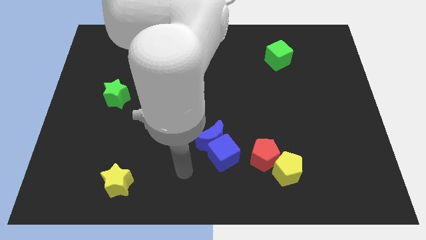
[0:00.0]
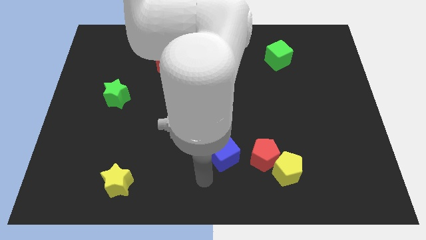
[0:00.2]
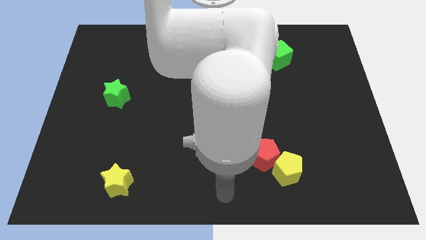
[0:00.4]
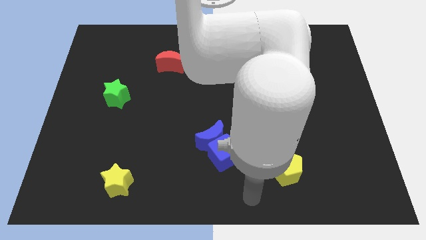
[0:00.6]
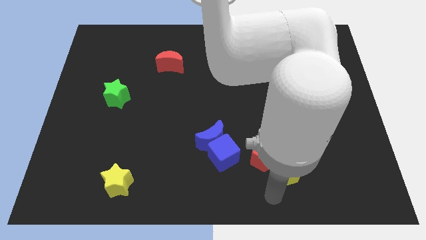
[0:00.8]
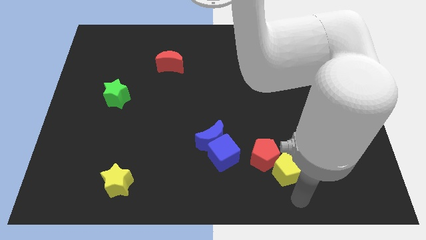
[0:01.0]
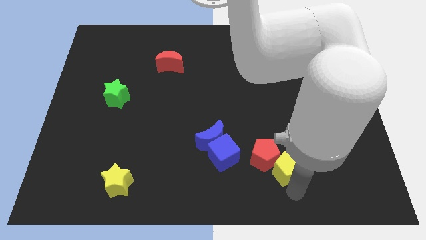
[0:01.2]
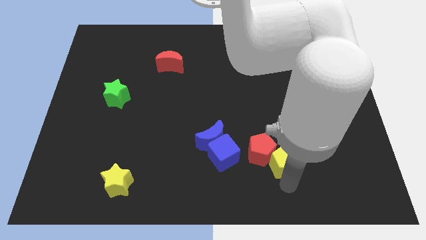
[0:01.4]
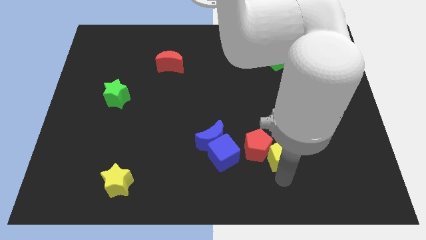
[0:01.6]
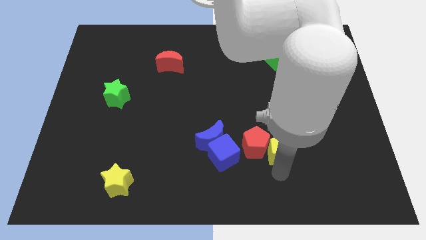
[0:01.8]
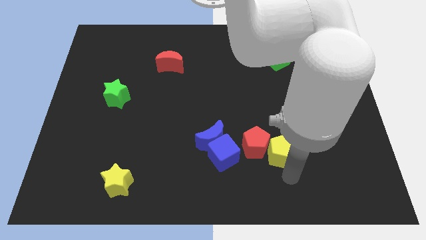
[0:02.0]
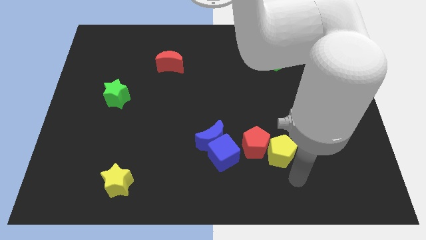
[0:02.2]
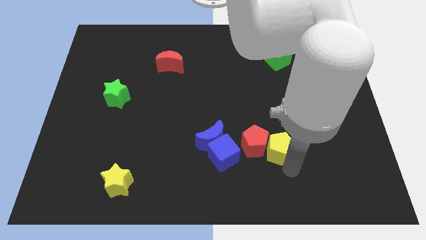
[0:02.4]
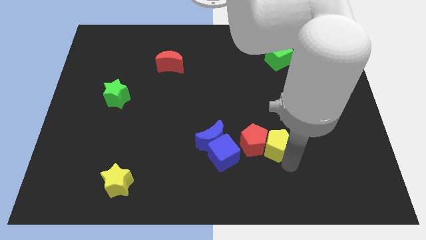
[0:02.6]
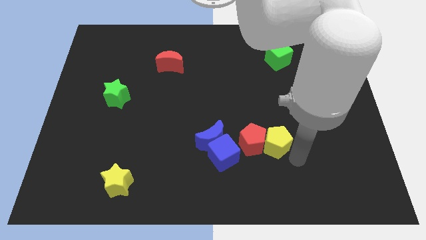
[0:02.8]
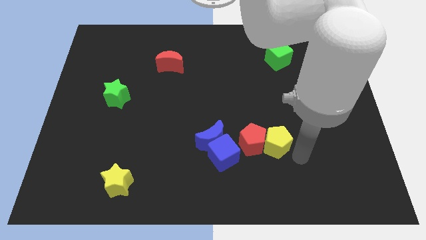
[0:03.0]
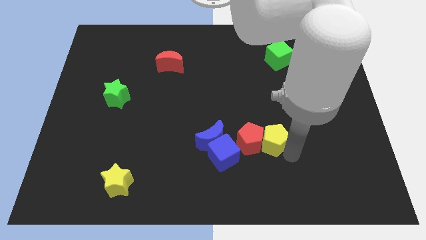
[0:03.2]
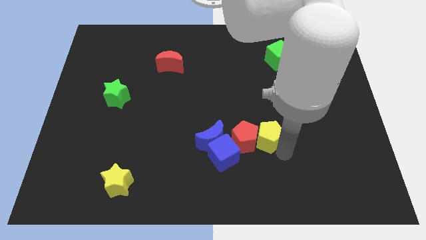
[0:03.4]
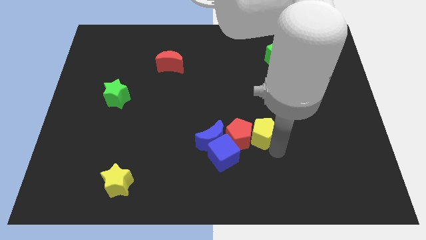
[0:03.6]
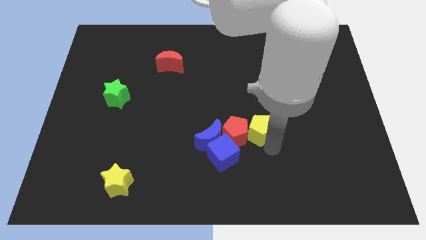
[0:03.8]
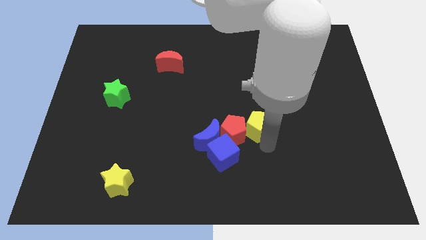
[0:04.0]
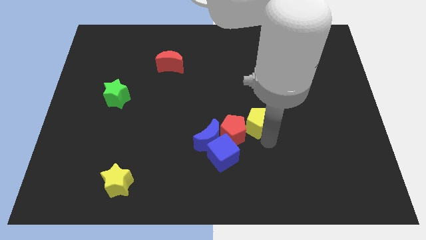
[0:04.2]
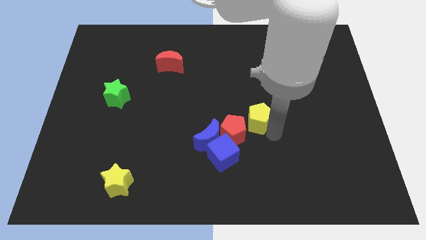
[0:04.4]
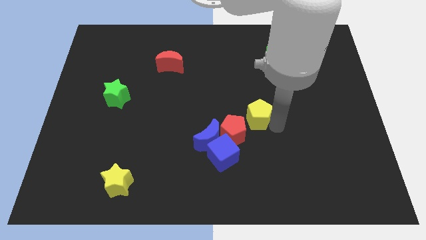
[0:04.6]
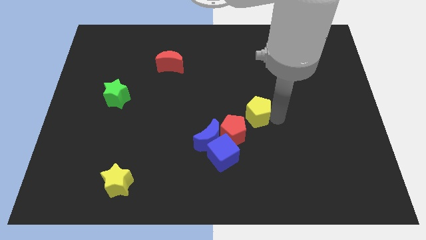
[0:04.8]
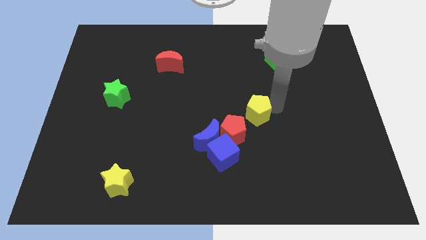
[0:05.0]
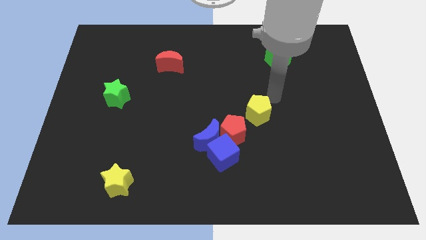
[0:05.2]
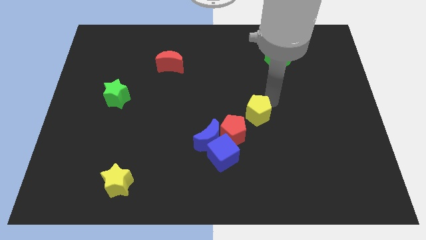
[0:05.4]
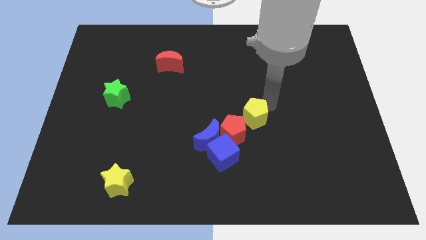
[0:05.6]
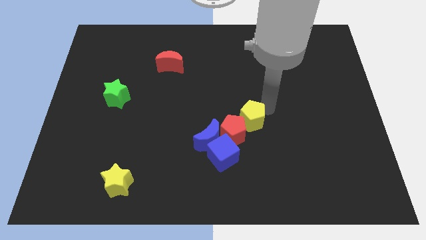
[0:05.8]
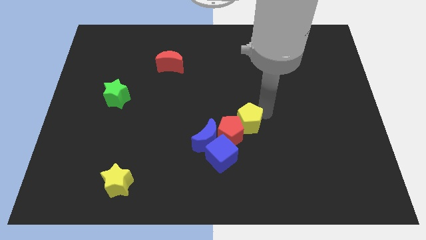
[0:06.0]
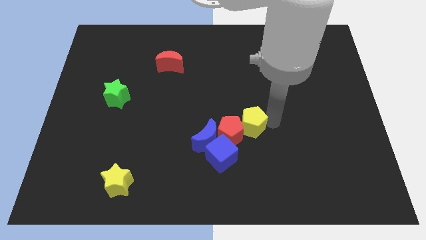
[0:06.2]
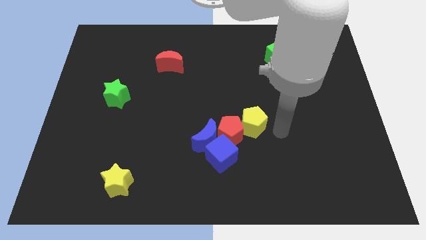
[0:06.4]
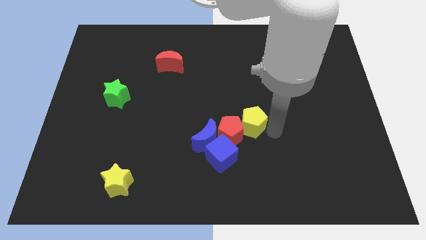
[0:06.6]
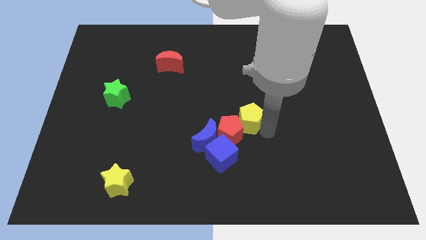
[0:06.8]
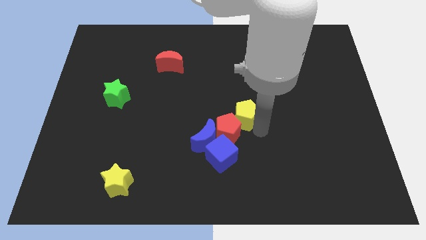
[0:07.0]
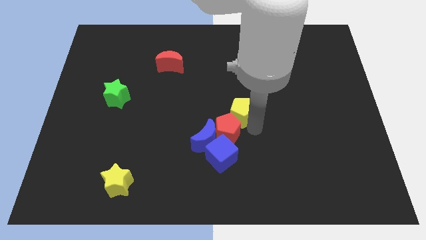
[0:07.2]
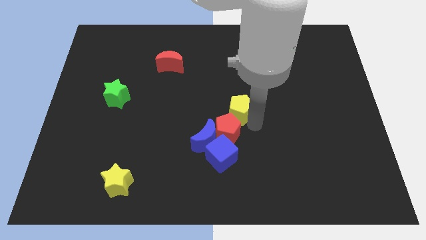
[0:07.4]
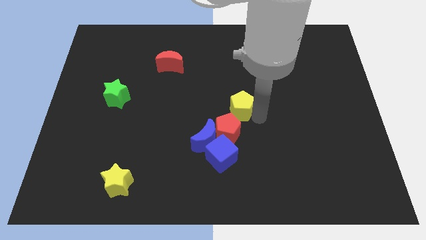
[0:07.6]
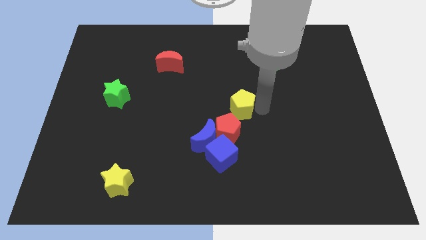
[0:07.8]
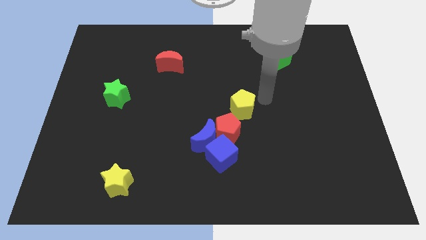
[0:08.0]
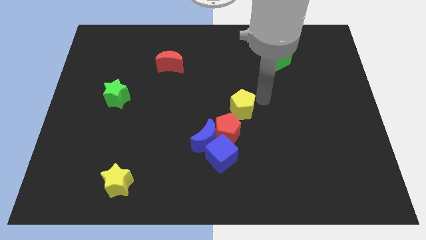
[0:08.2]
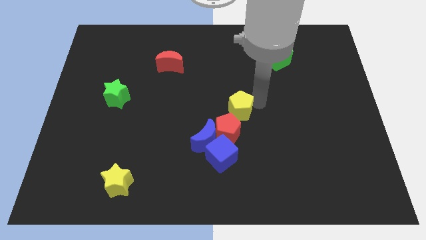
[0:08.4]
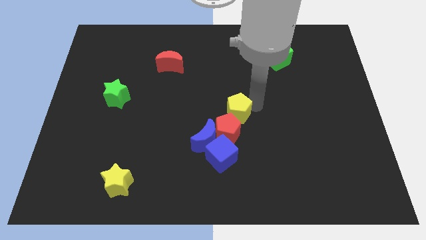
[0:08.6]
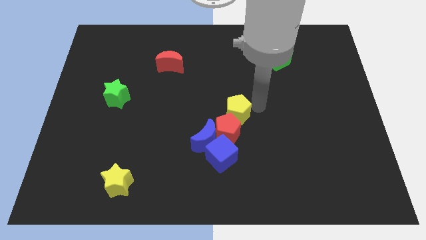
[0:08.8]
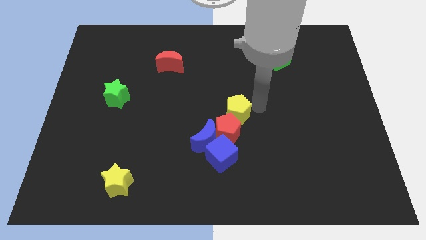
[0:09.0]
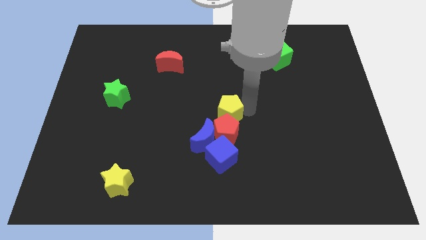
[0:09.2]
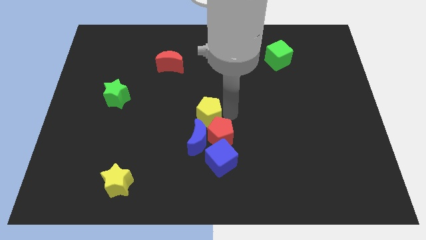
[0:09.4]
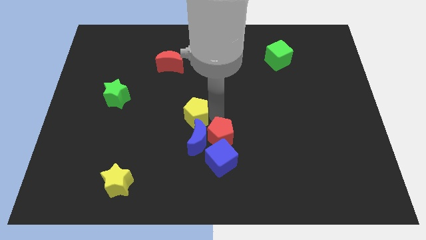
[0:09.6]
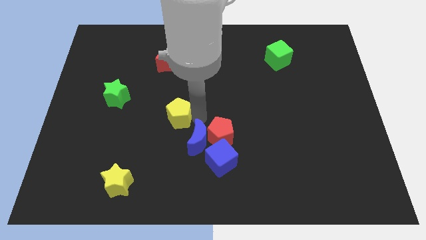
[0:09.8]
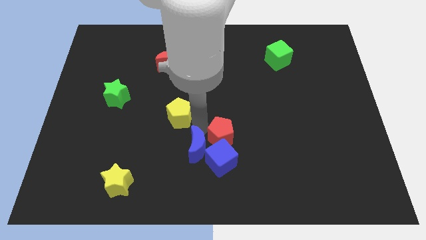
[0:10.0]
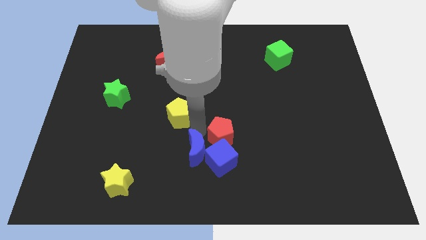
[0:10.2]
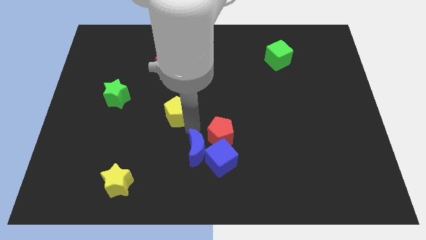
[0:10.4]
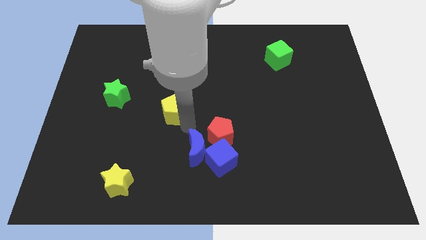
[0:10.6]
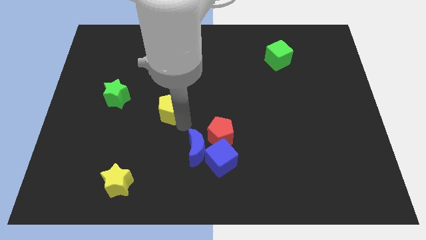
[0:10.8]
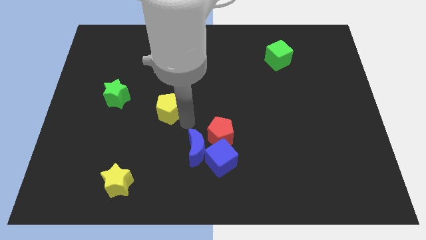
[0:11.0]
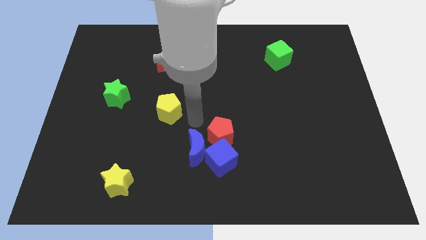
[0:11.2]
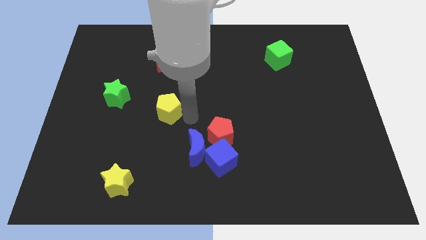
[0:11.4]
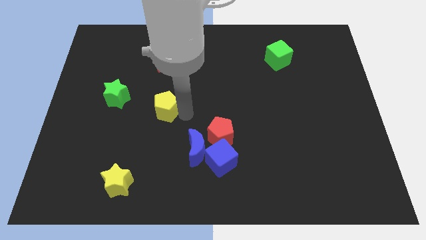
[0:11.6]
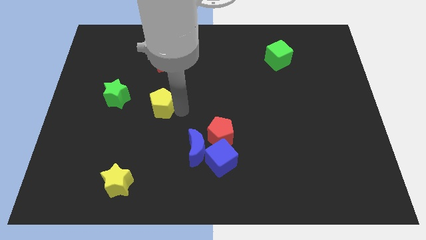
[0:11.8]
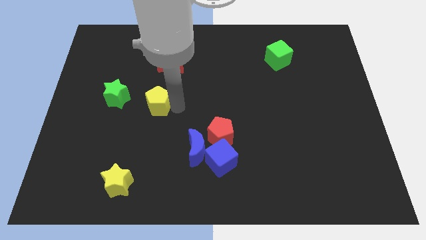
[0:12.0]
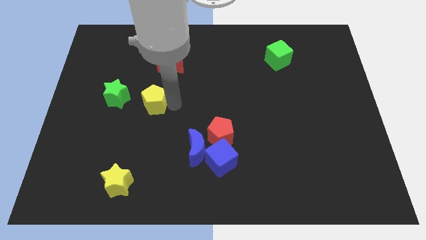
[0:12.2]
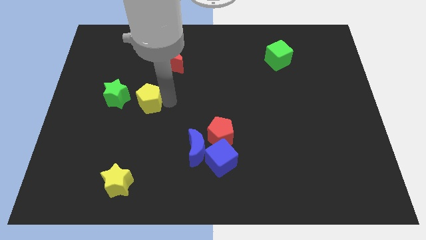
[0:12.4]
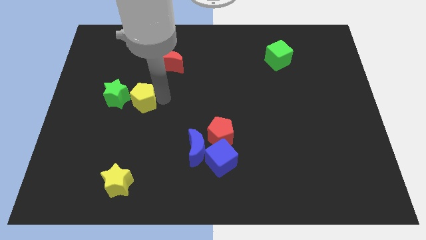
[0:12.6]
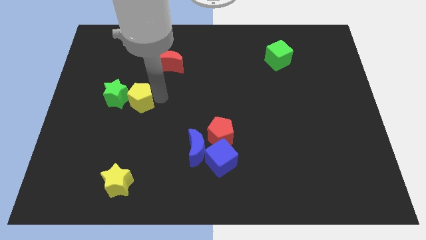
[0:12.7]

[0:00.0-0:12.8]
push the yellow pentagon to the green star
